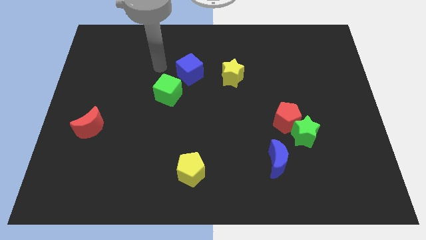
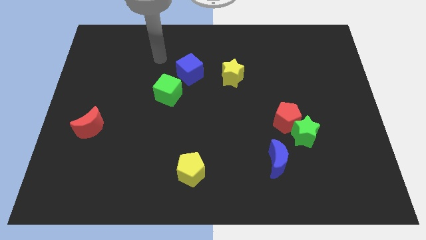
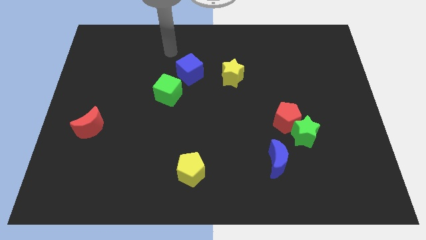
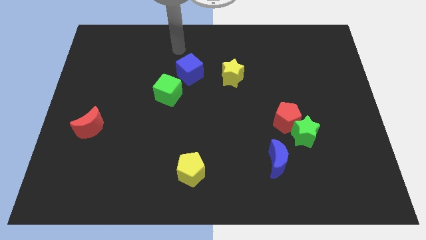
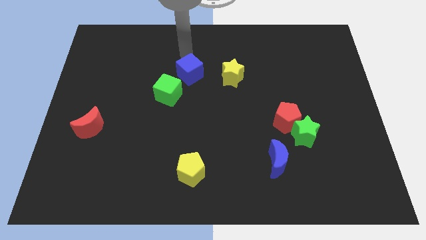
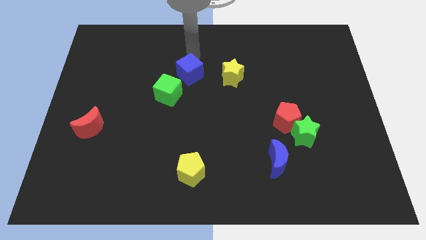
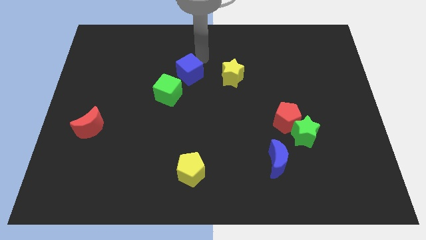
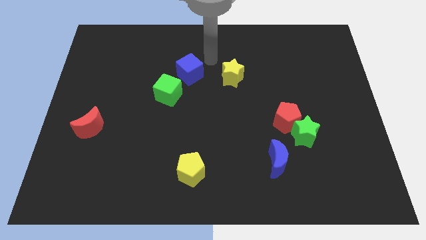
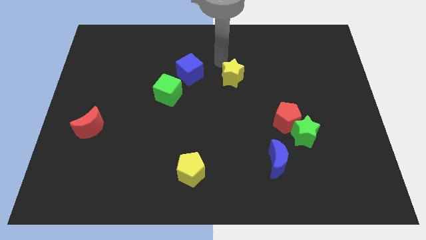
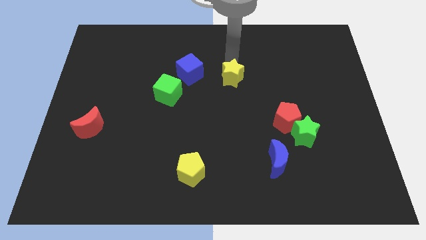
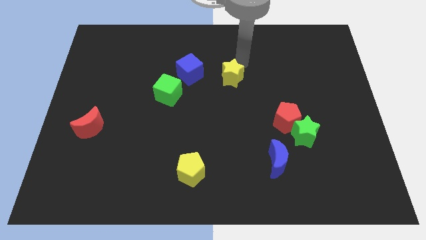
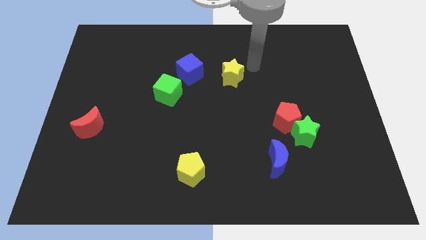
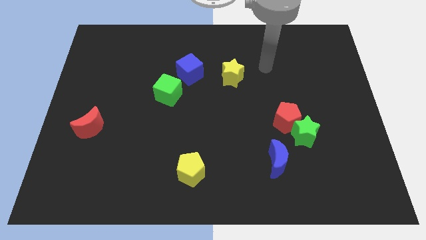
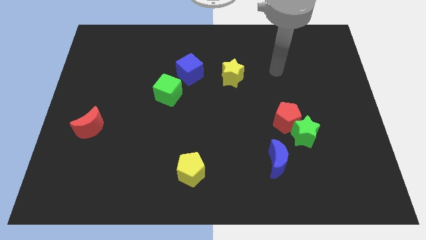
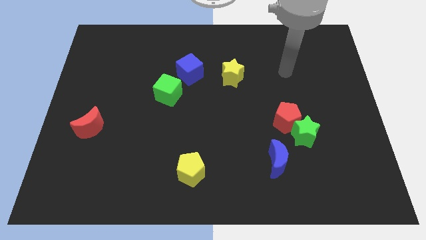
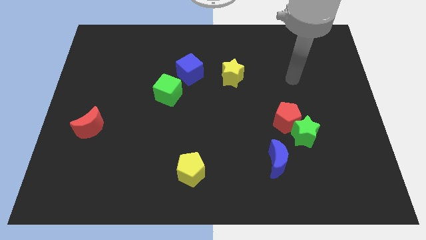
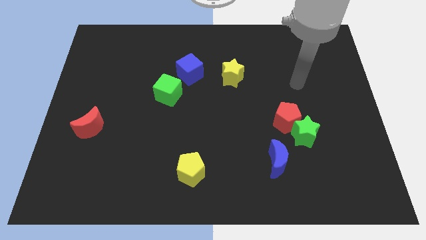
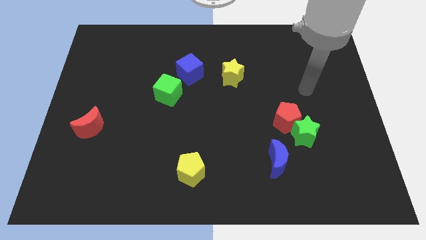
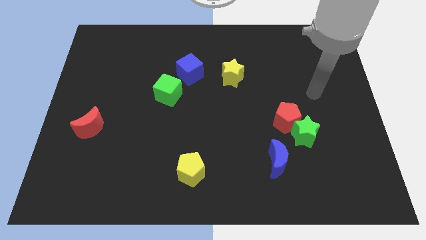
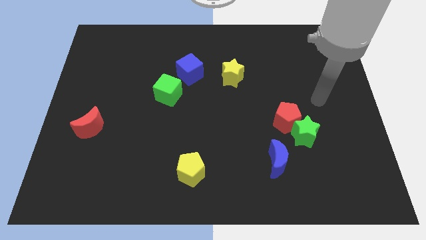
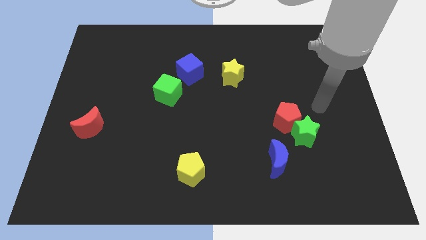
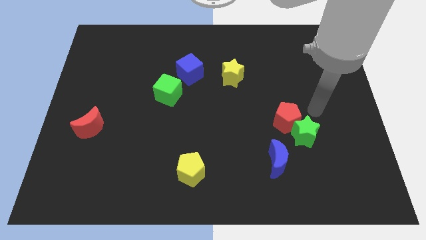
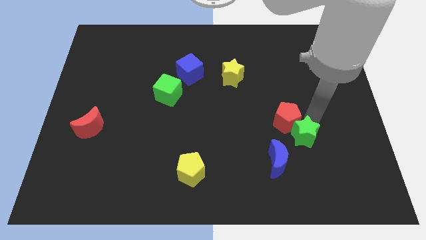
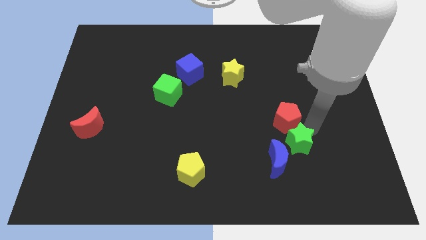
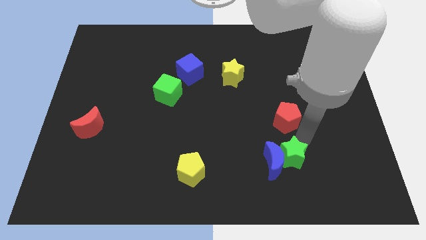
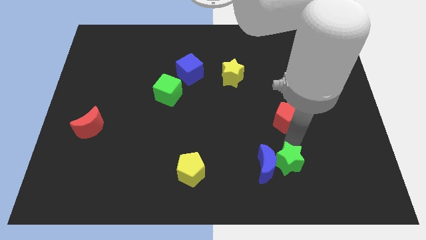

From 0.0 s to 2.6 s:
move the red pentagon away from the green star
